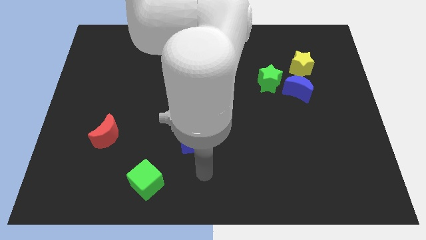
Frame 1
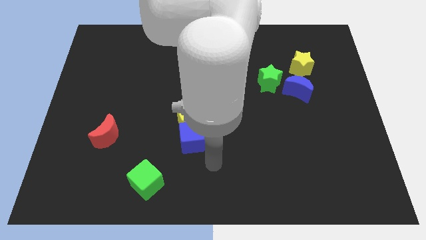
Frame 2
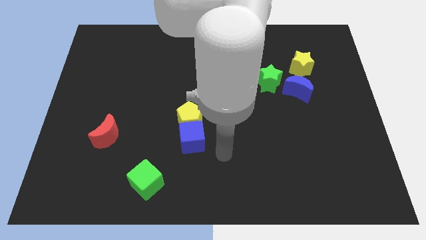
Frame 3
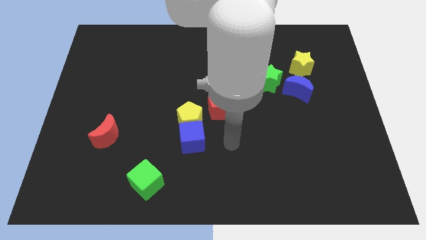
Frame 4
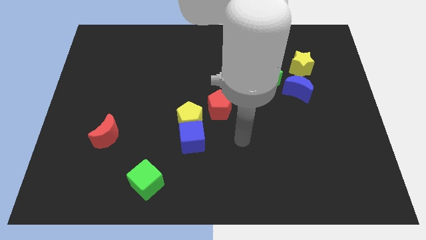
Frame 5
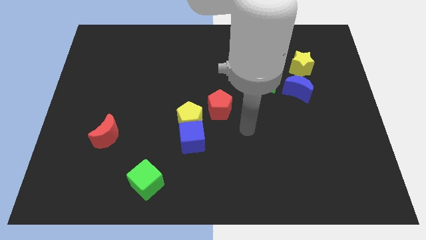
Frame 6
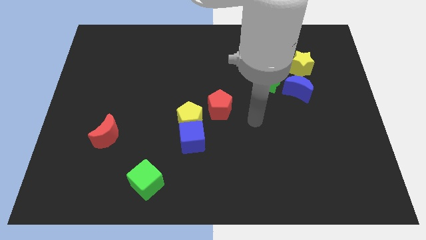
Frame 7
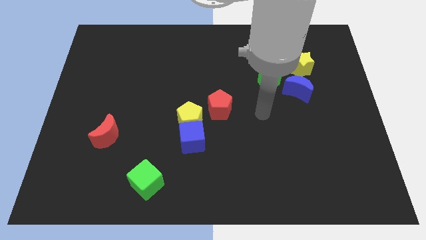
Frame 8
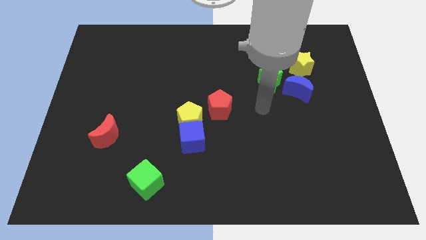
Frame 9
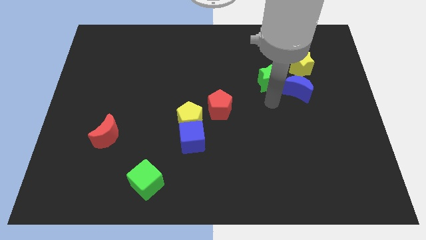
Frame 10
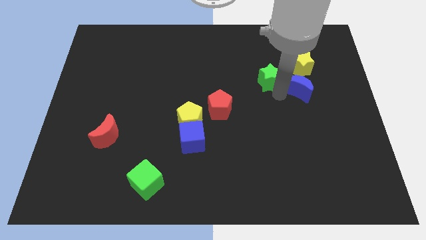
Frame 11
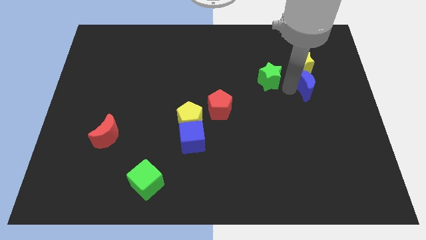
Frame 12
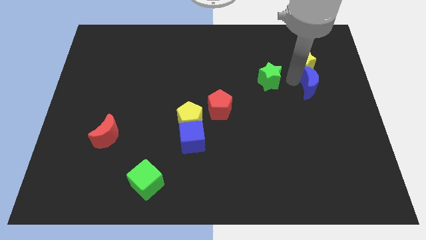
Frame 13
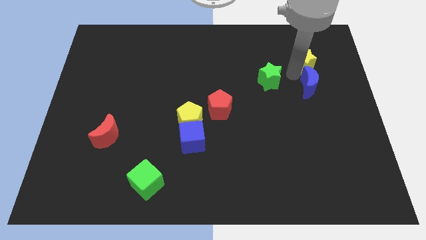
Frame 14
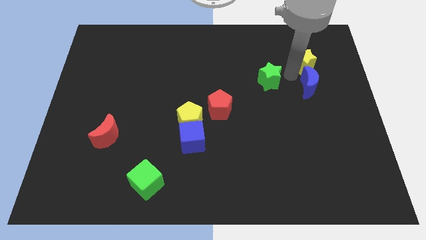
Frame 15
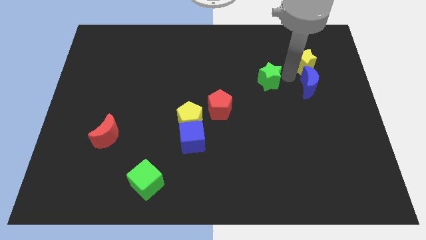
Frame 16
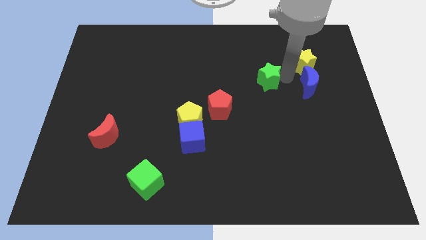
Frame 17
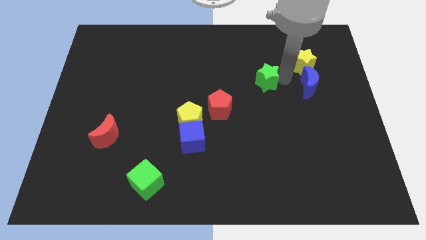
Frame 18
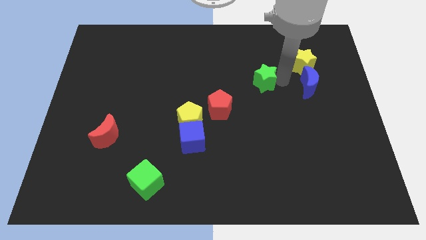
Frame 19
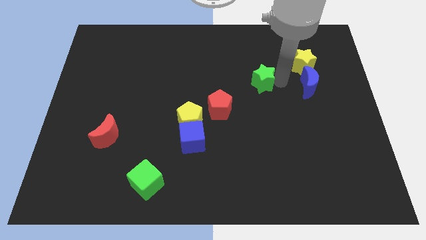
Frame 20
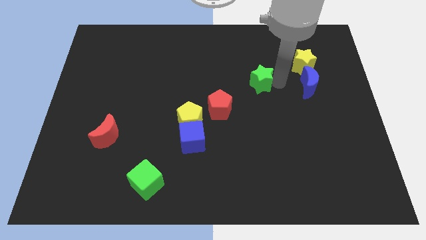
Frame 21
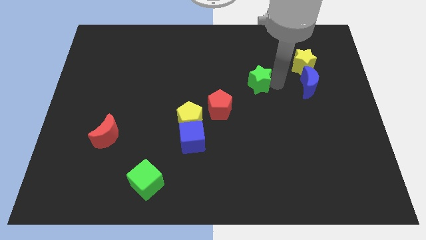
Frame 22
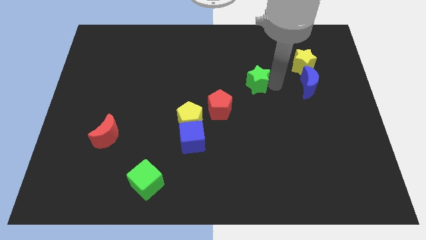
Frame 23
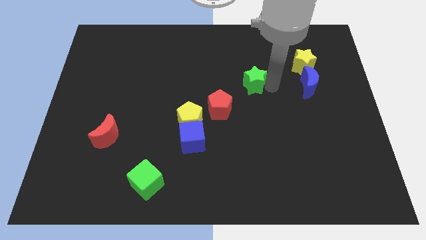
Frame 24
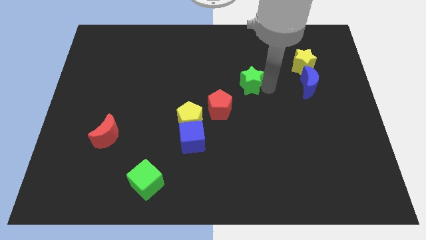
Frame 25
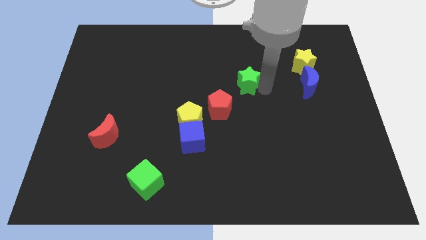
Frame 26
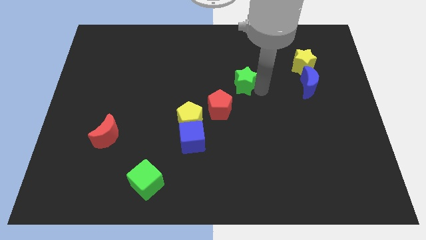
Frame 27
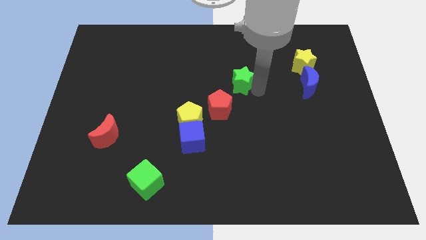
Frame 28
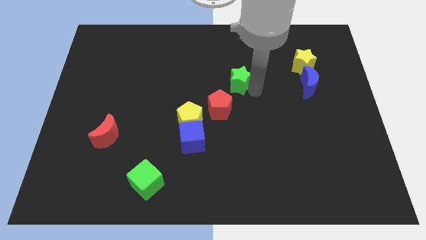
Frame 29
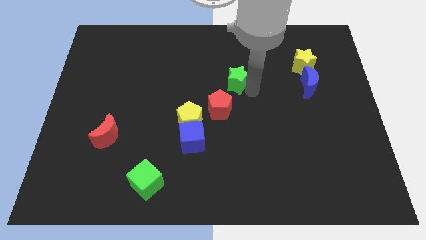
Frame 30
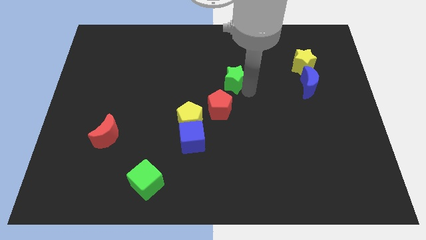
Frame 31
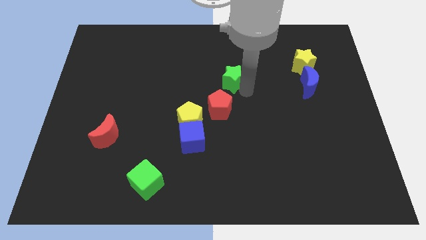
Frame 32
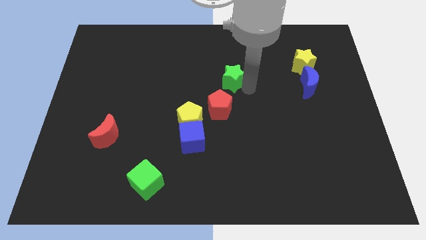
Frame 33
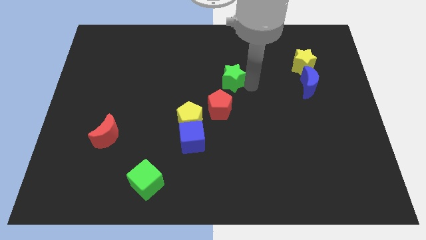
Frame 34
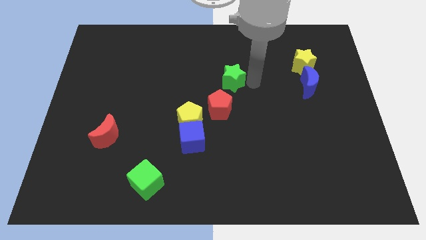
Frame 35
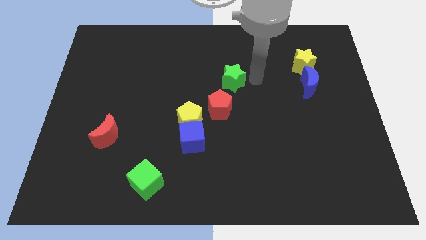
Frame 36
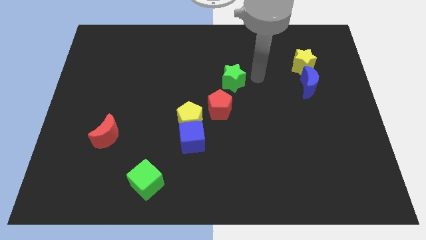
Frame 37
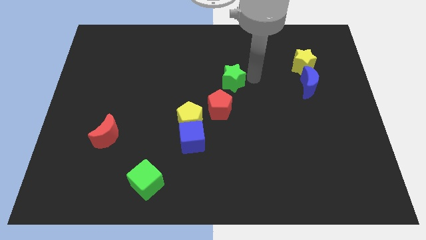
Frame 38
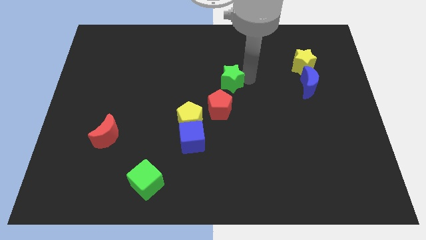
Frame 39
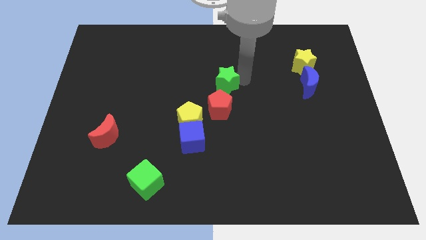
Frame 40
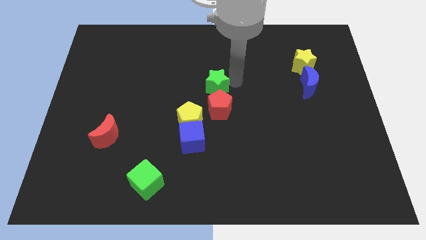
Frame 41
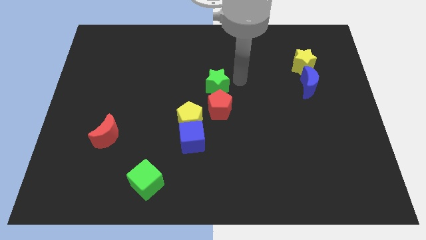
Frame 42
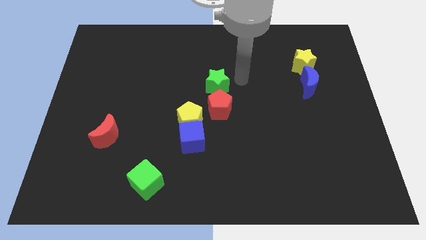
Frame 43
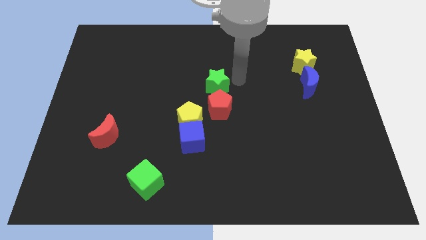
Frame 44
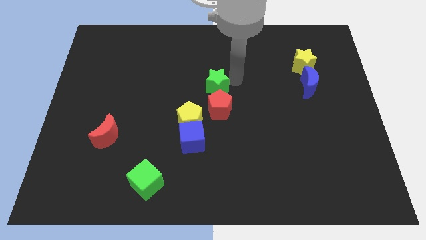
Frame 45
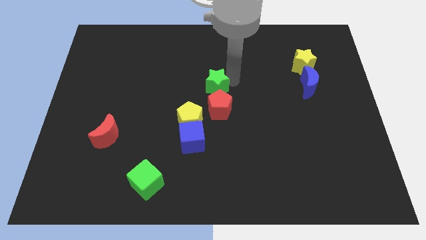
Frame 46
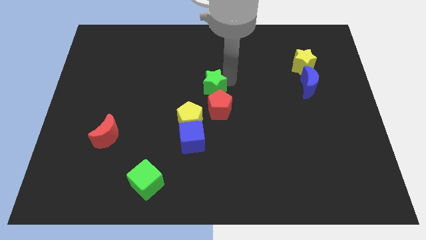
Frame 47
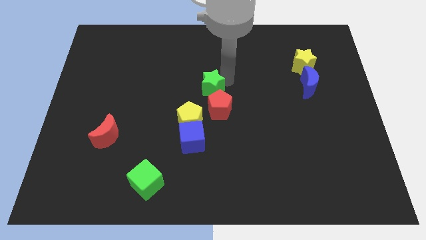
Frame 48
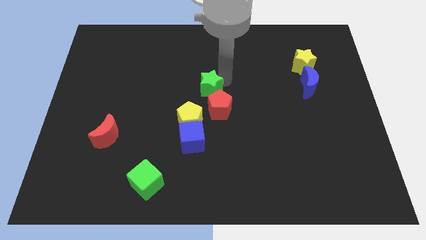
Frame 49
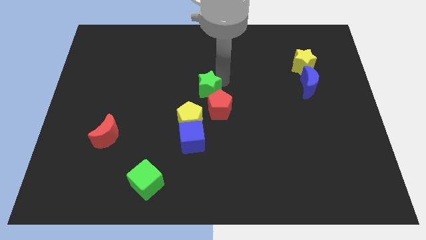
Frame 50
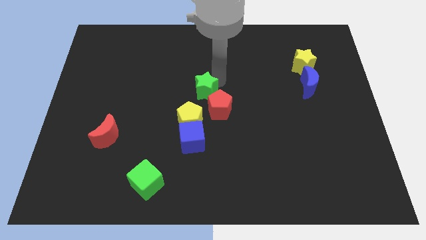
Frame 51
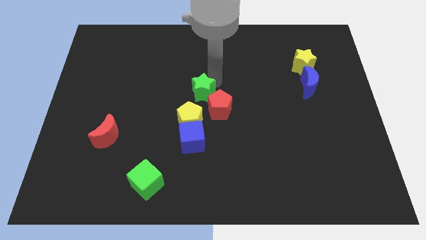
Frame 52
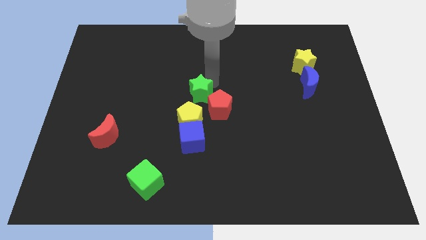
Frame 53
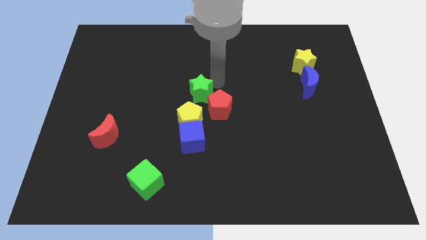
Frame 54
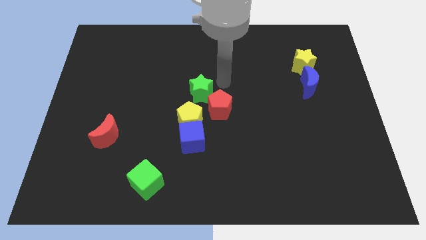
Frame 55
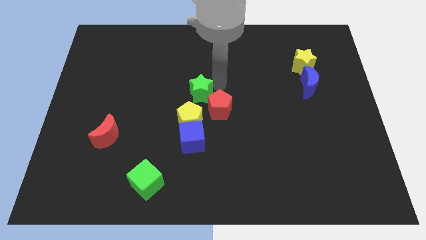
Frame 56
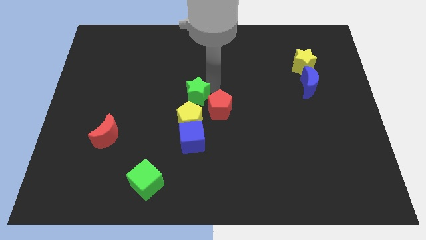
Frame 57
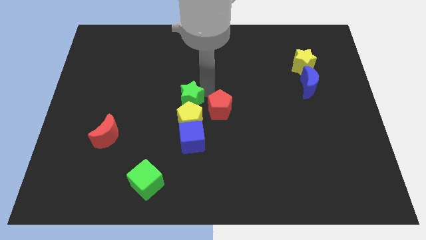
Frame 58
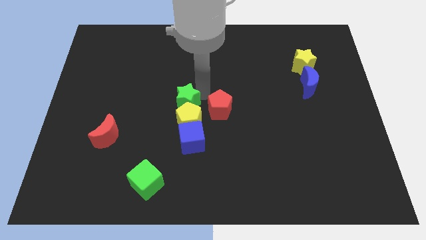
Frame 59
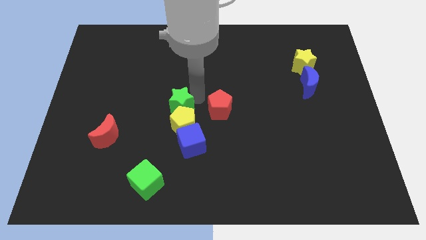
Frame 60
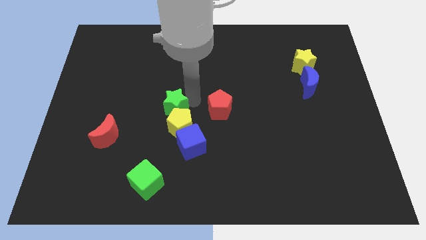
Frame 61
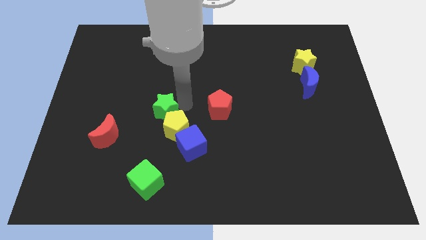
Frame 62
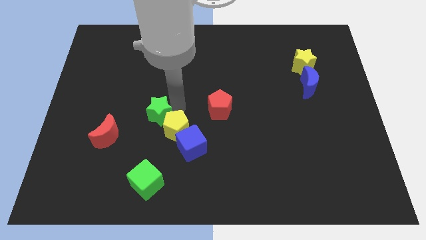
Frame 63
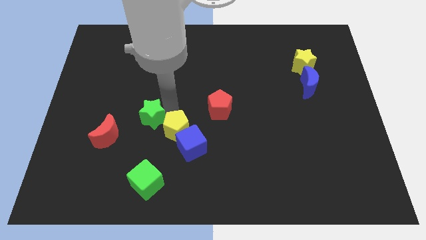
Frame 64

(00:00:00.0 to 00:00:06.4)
put the green star diagonally up and to the right of the red moon

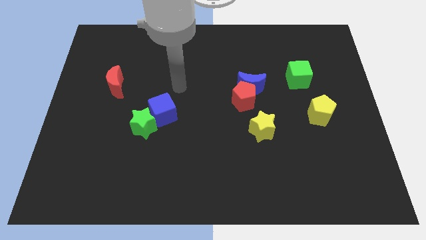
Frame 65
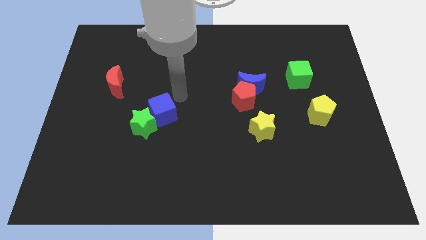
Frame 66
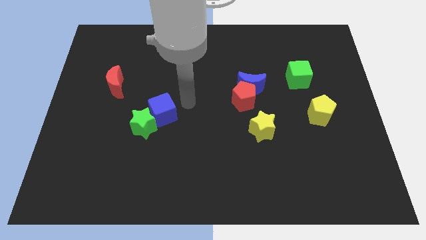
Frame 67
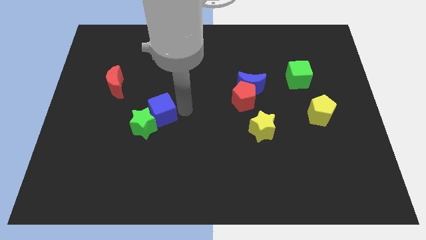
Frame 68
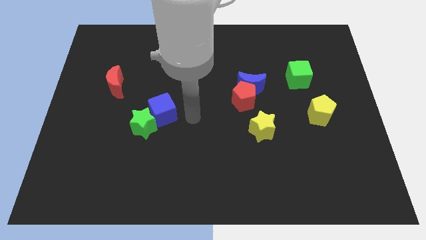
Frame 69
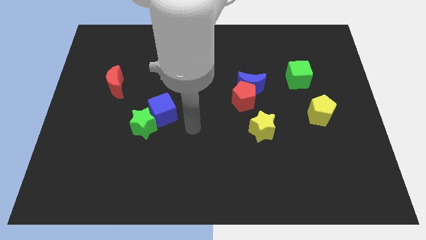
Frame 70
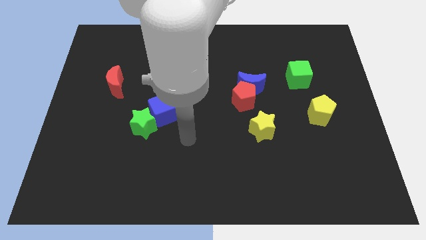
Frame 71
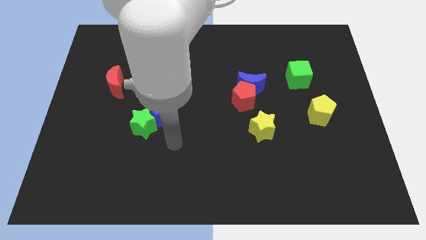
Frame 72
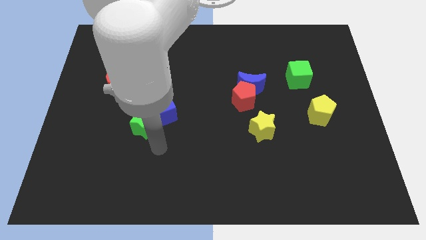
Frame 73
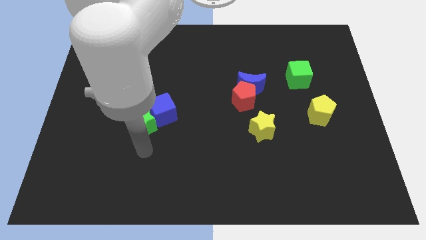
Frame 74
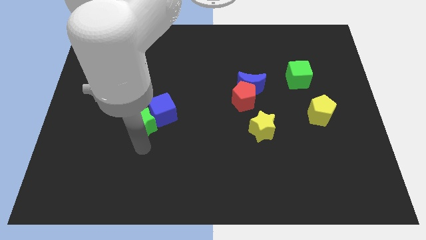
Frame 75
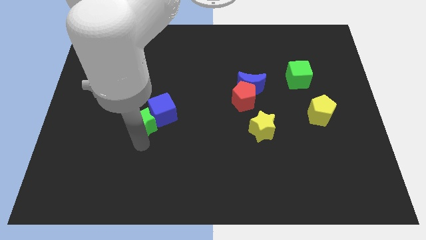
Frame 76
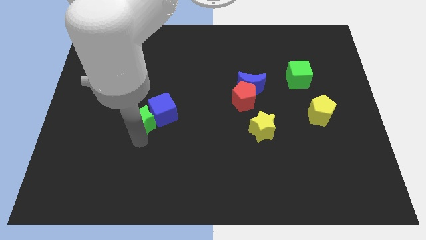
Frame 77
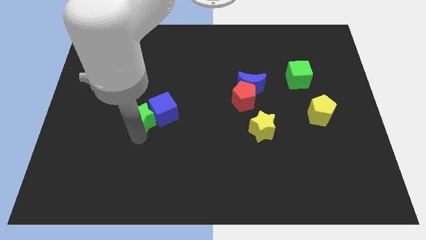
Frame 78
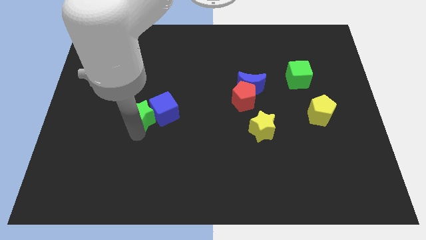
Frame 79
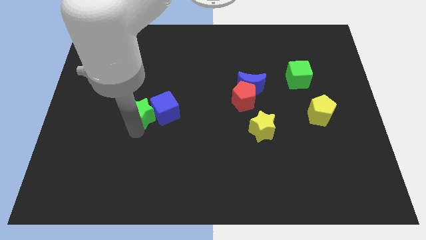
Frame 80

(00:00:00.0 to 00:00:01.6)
slide the green star to the top left side of the blue cube
